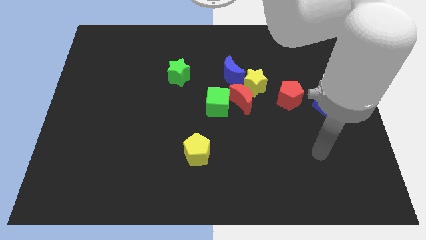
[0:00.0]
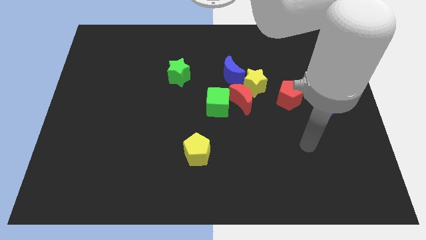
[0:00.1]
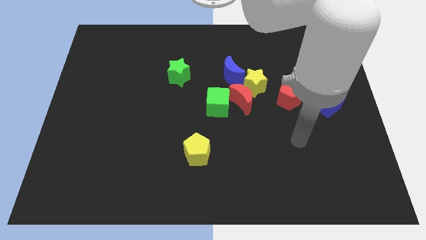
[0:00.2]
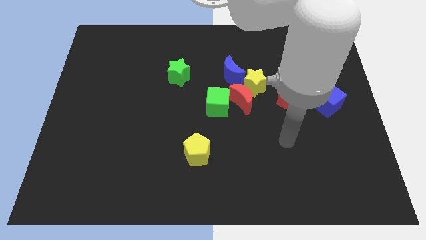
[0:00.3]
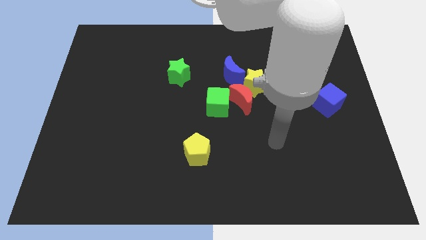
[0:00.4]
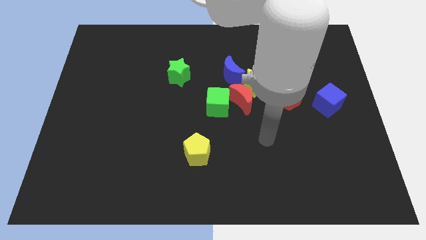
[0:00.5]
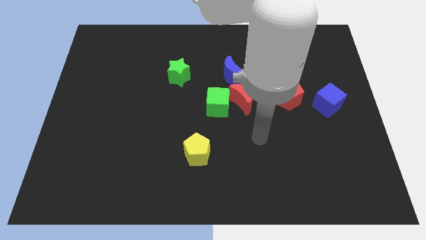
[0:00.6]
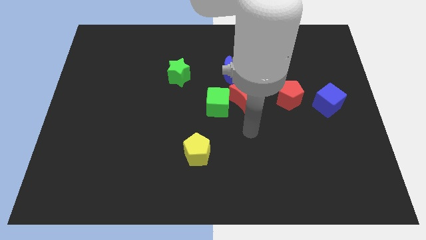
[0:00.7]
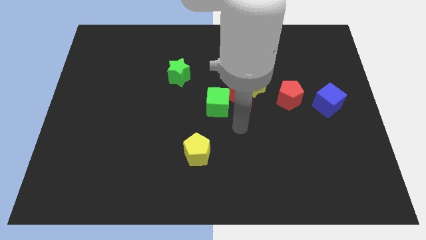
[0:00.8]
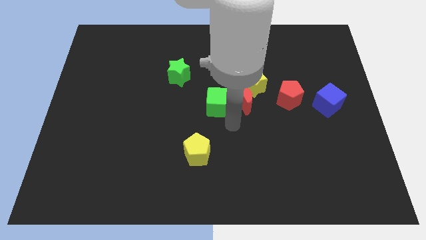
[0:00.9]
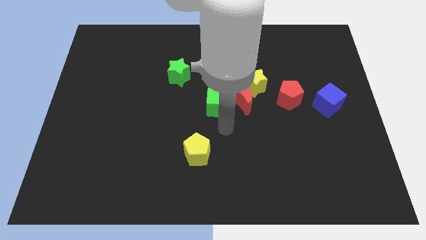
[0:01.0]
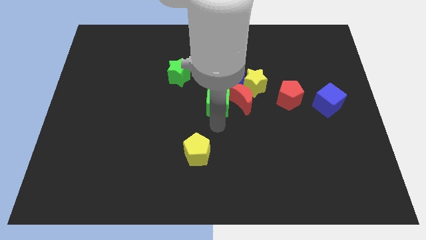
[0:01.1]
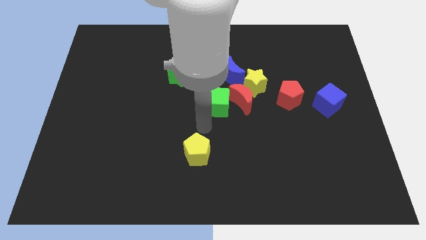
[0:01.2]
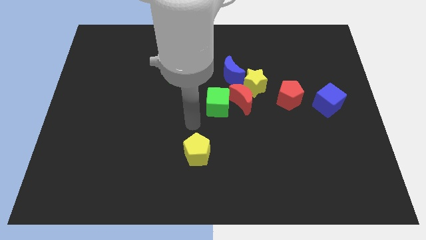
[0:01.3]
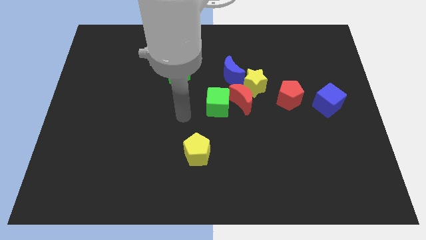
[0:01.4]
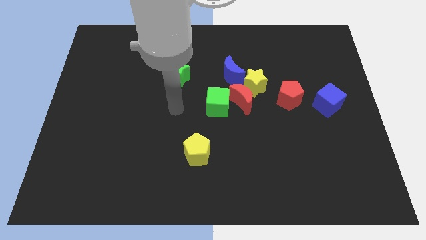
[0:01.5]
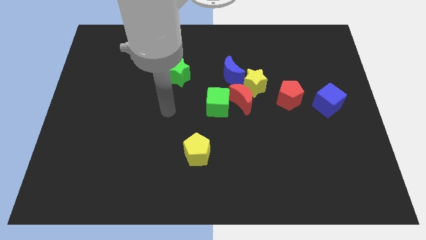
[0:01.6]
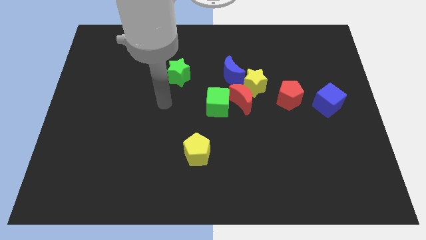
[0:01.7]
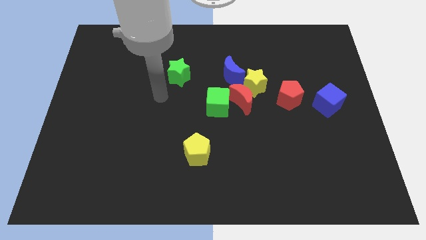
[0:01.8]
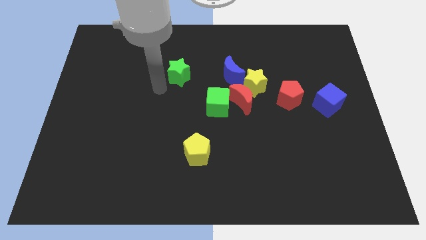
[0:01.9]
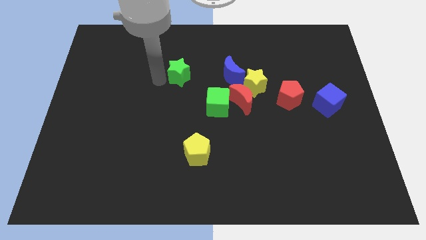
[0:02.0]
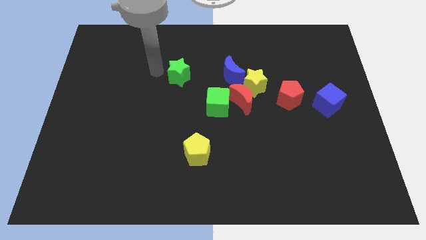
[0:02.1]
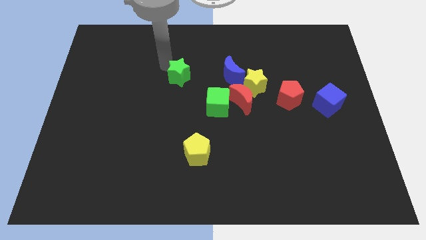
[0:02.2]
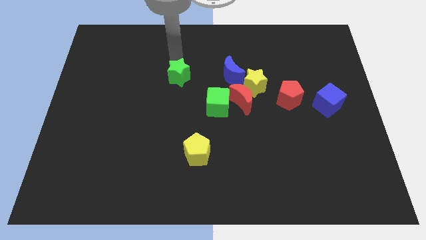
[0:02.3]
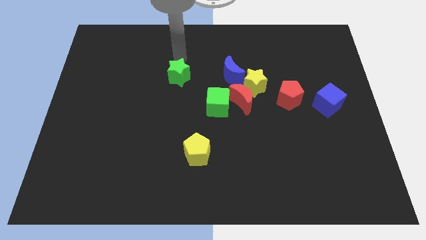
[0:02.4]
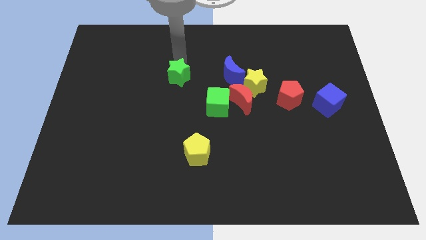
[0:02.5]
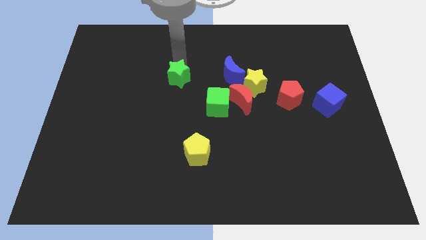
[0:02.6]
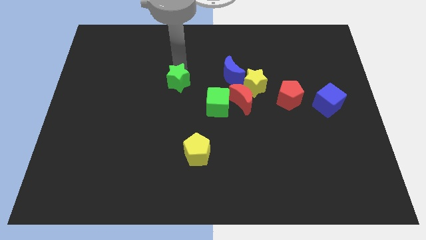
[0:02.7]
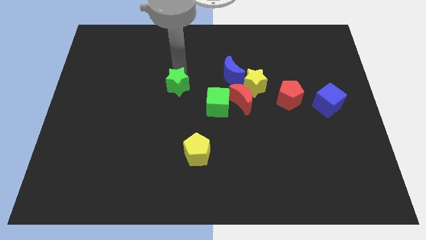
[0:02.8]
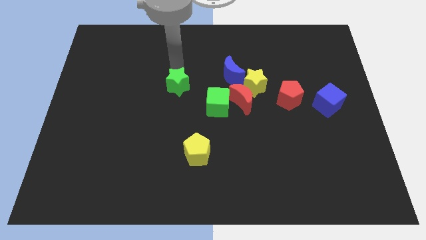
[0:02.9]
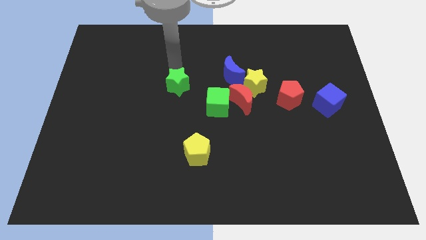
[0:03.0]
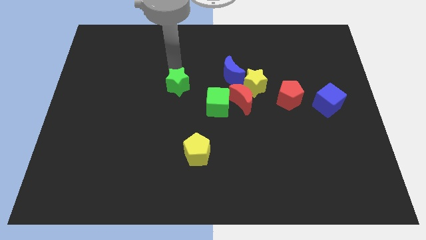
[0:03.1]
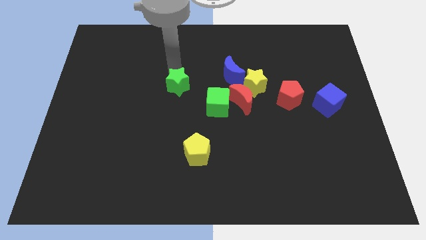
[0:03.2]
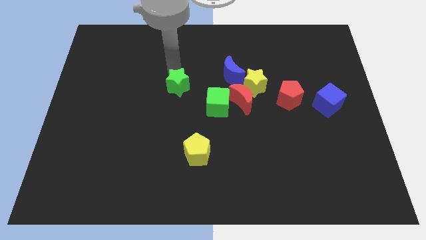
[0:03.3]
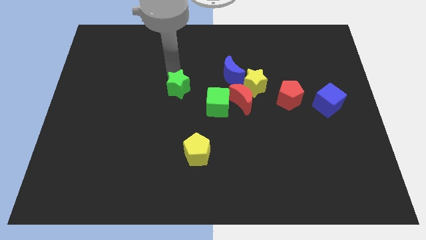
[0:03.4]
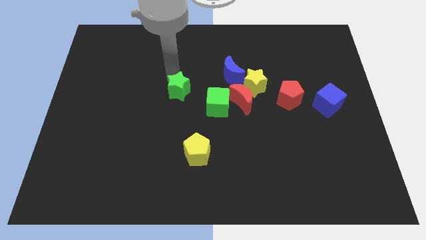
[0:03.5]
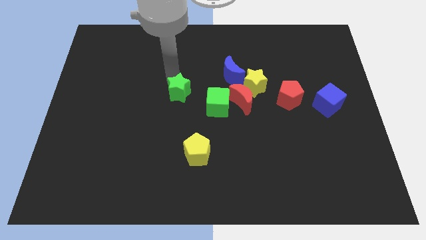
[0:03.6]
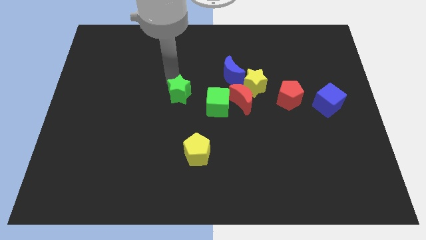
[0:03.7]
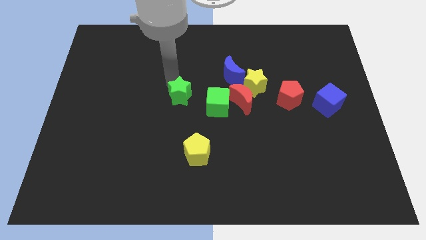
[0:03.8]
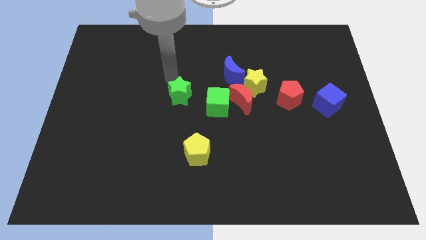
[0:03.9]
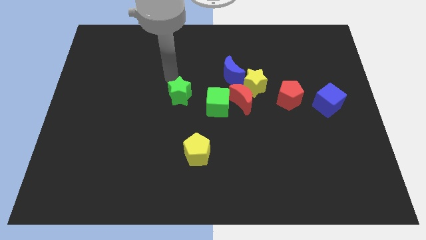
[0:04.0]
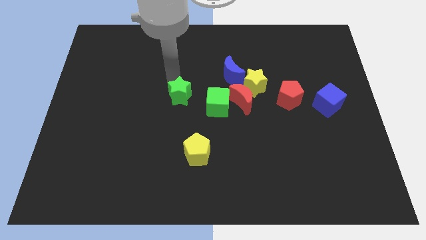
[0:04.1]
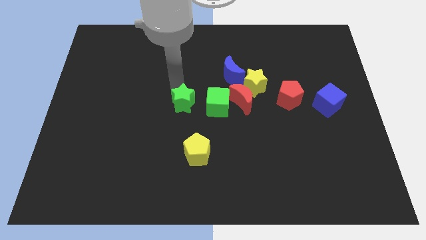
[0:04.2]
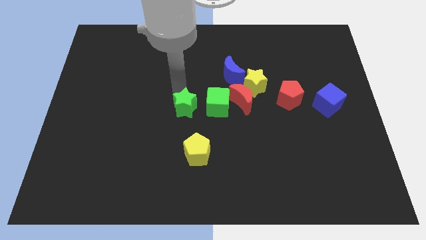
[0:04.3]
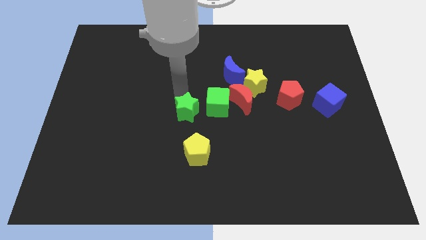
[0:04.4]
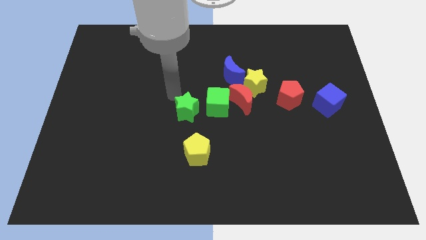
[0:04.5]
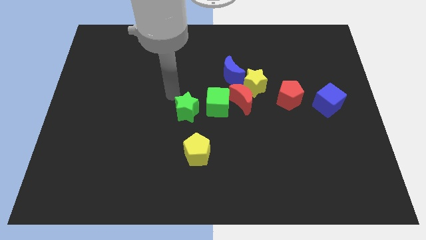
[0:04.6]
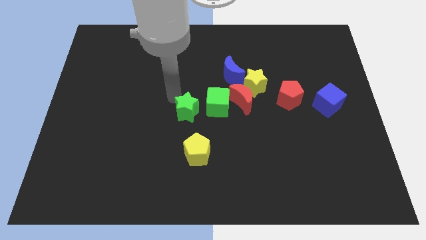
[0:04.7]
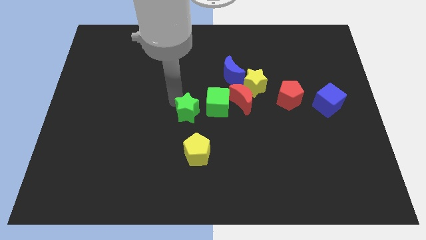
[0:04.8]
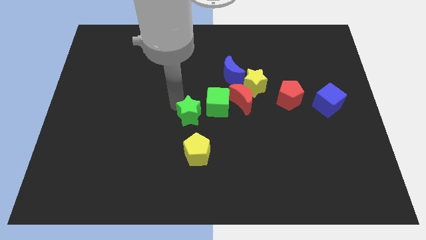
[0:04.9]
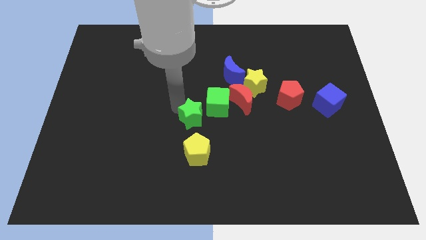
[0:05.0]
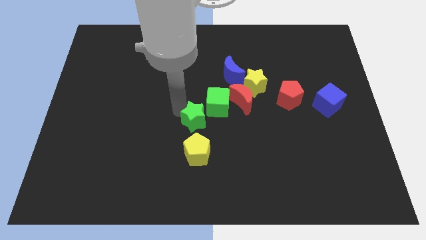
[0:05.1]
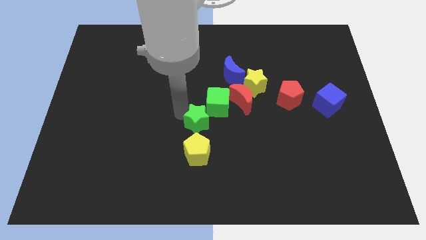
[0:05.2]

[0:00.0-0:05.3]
move the green star below the green cube

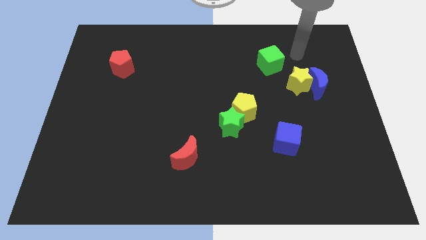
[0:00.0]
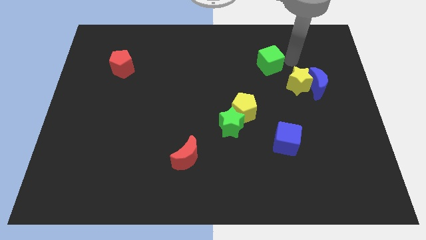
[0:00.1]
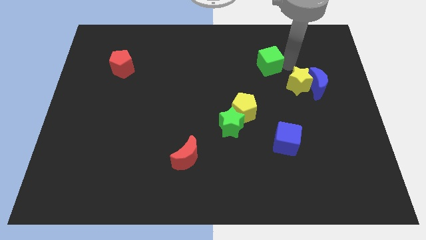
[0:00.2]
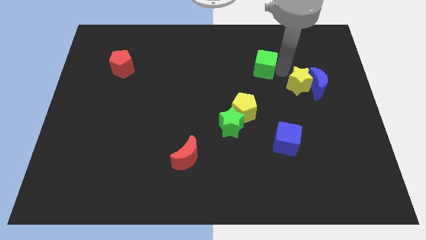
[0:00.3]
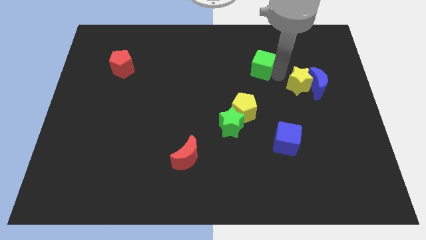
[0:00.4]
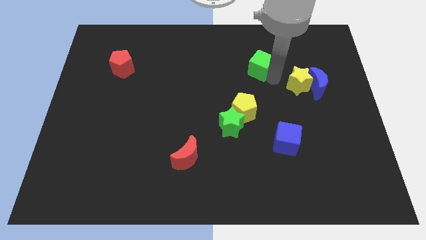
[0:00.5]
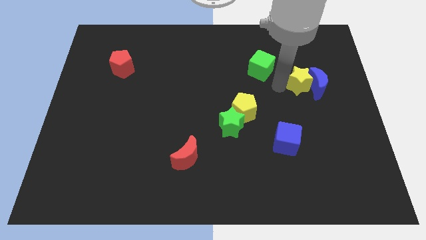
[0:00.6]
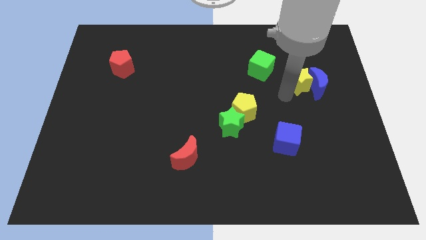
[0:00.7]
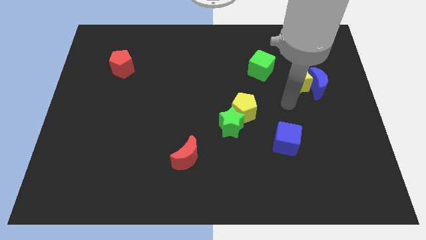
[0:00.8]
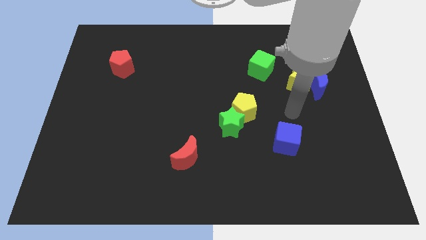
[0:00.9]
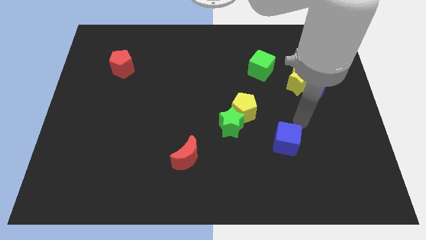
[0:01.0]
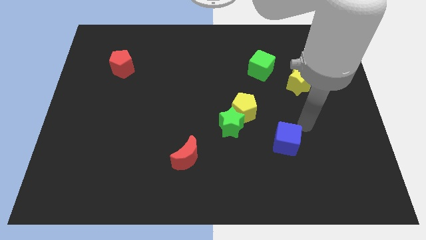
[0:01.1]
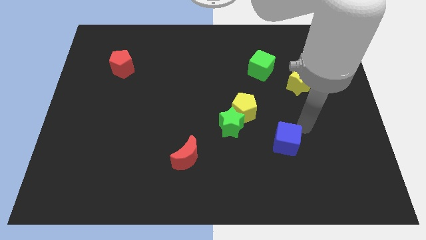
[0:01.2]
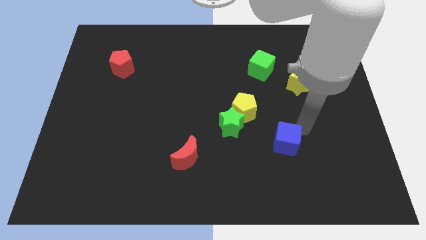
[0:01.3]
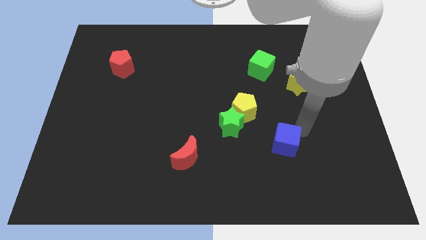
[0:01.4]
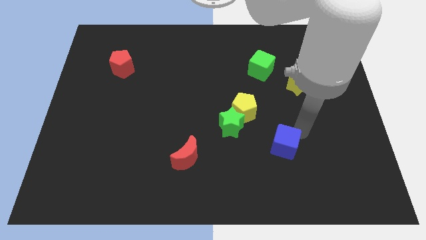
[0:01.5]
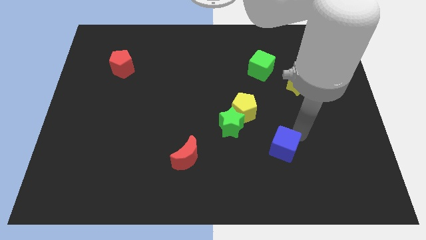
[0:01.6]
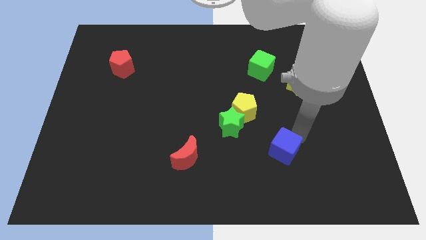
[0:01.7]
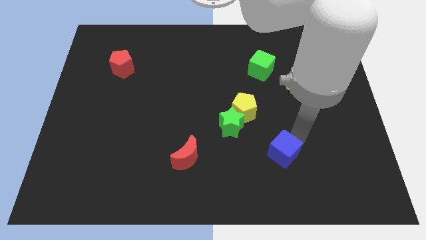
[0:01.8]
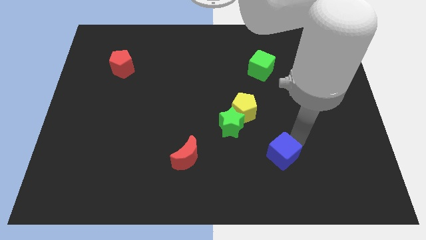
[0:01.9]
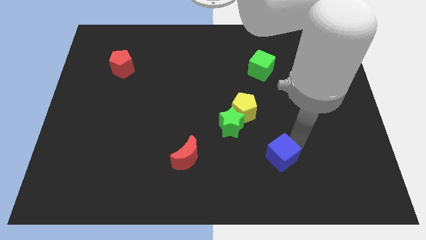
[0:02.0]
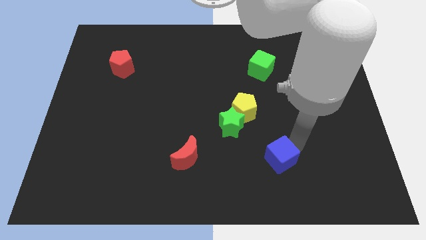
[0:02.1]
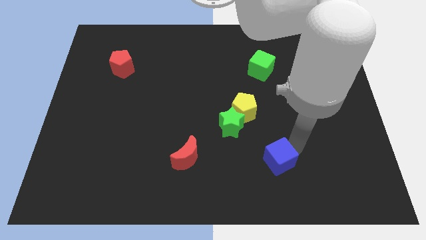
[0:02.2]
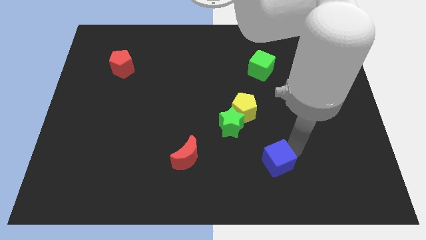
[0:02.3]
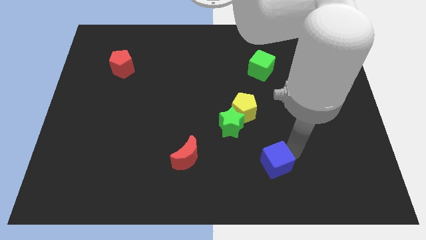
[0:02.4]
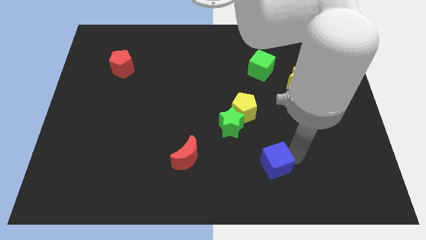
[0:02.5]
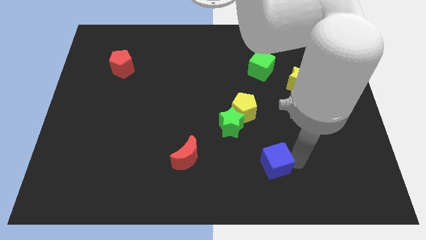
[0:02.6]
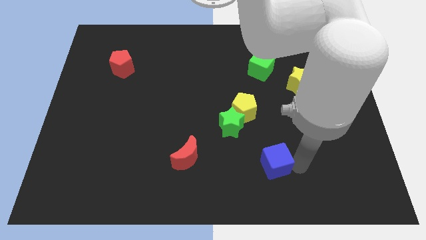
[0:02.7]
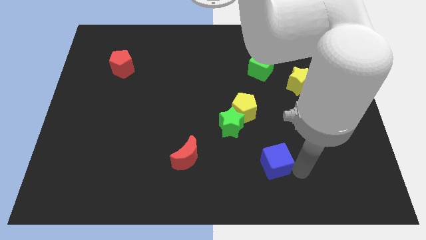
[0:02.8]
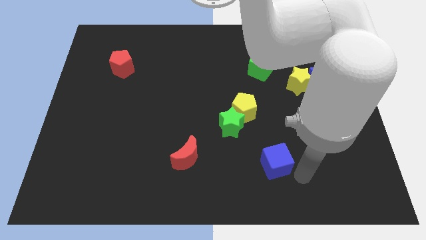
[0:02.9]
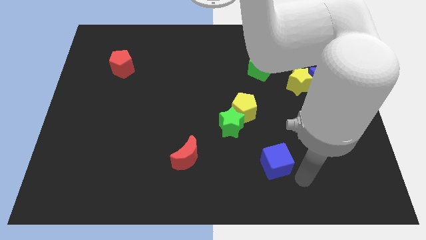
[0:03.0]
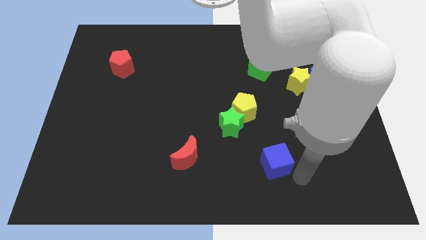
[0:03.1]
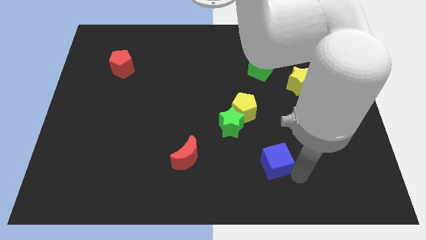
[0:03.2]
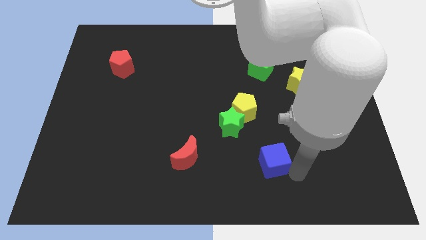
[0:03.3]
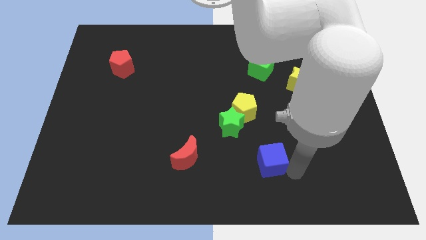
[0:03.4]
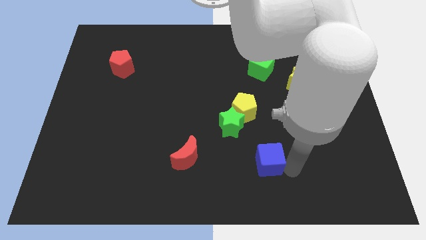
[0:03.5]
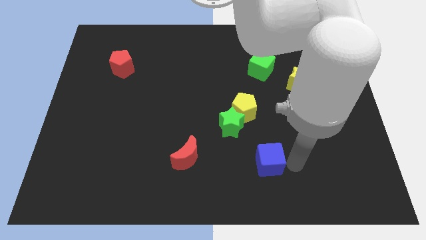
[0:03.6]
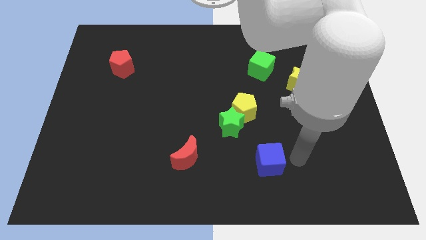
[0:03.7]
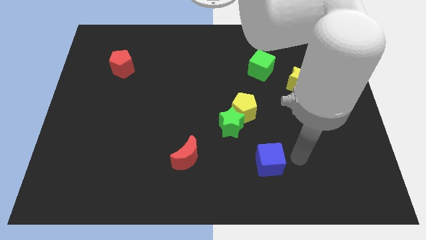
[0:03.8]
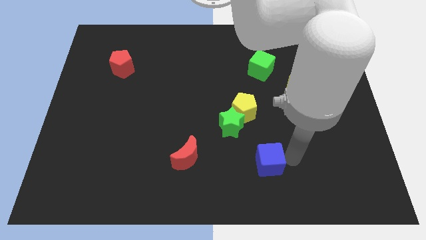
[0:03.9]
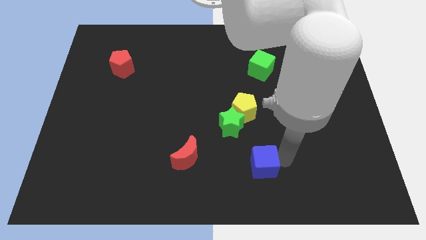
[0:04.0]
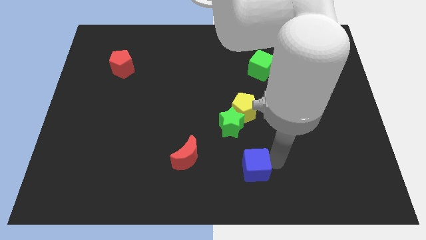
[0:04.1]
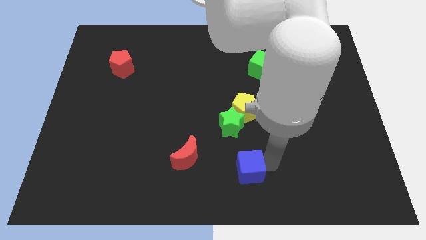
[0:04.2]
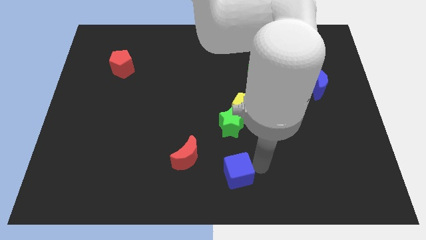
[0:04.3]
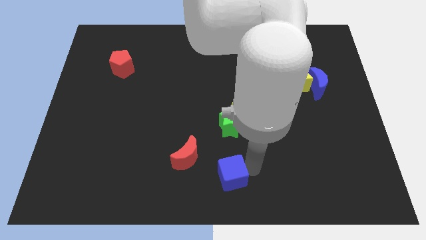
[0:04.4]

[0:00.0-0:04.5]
move the blue cube to the bottom right of the red moon
